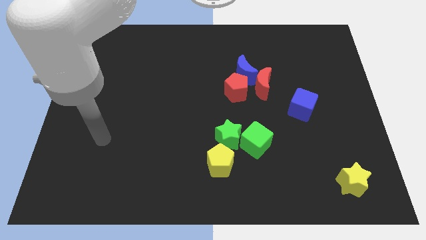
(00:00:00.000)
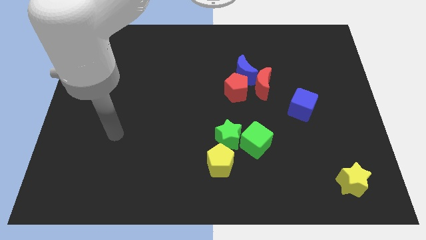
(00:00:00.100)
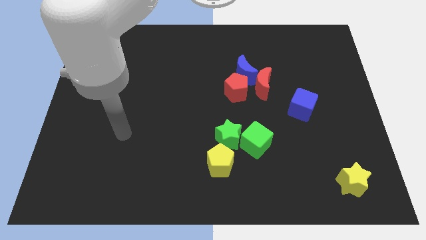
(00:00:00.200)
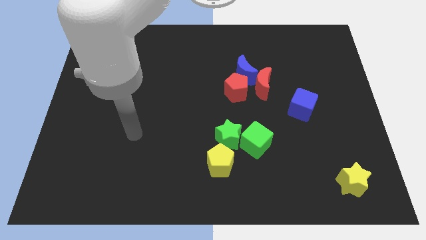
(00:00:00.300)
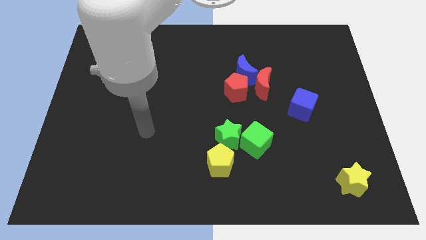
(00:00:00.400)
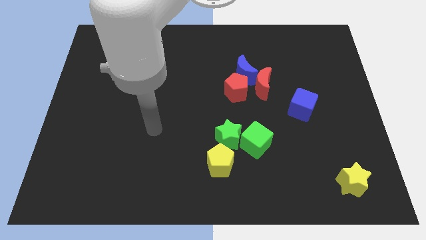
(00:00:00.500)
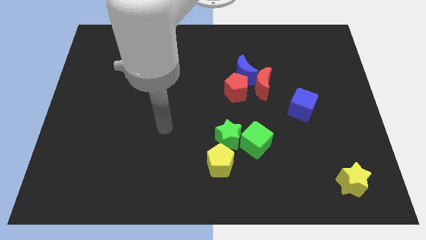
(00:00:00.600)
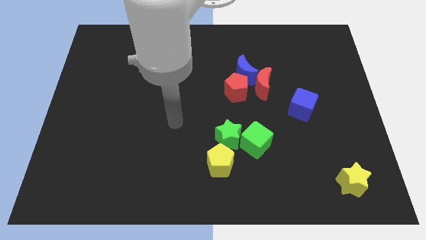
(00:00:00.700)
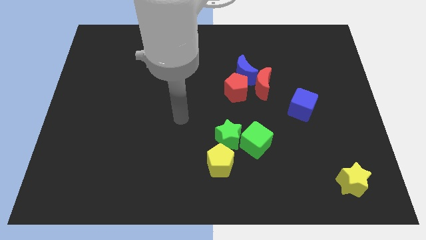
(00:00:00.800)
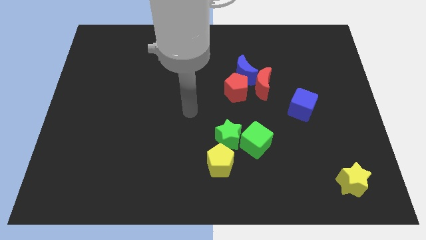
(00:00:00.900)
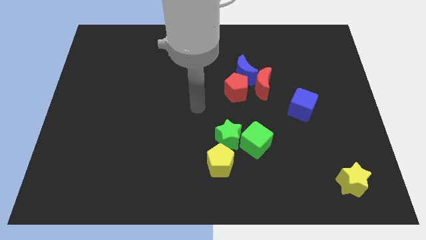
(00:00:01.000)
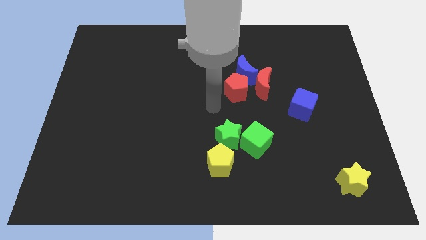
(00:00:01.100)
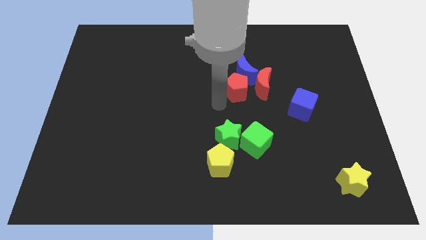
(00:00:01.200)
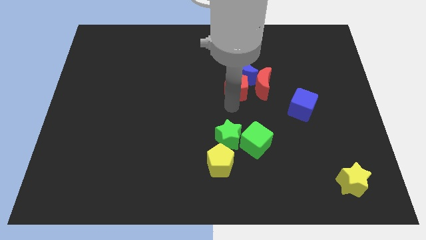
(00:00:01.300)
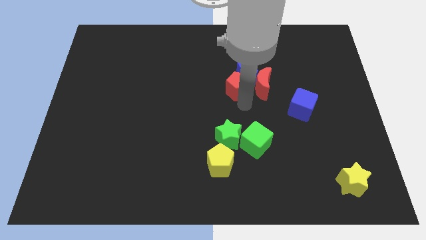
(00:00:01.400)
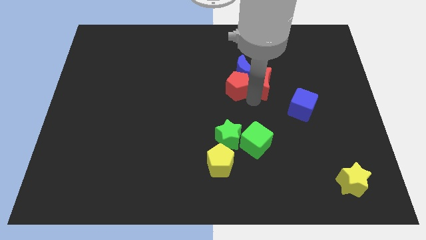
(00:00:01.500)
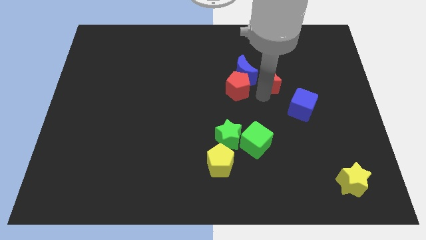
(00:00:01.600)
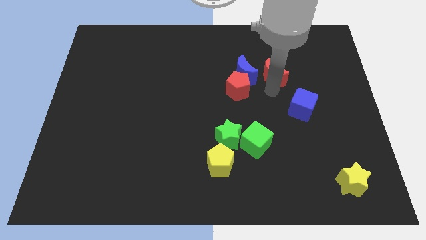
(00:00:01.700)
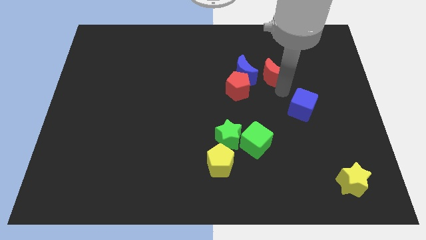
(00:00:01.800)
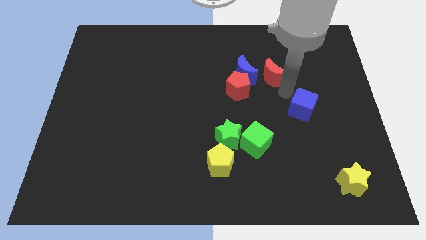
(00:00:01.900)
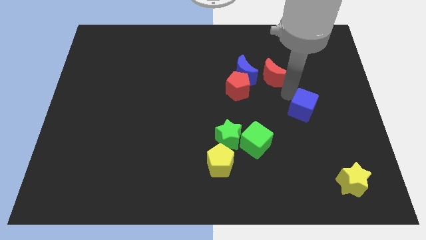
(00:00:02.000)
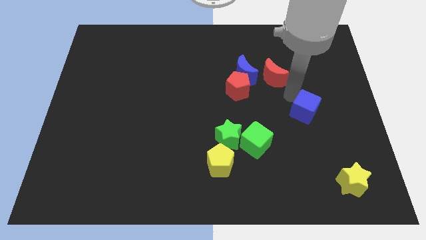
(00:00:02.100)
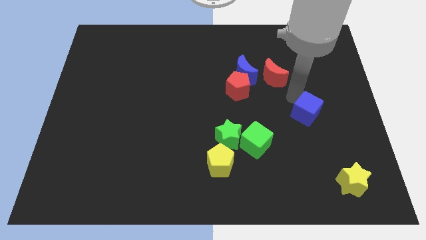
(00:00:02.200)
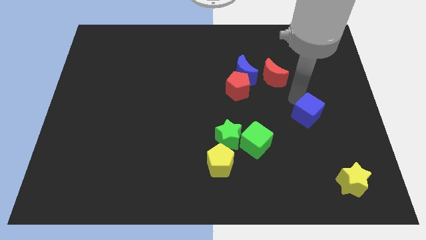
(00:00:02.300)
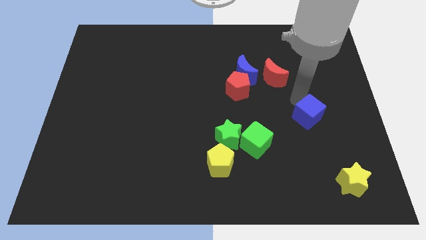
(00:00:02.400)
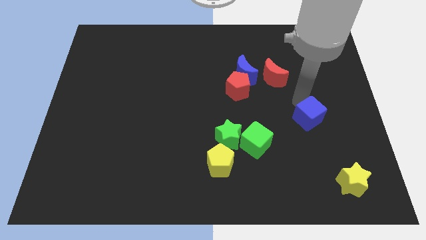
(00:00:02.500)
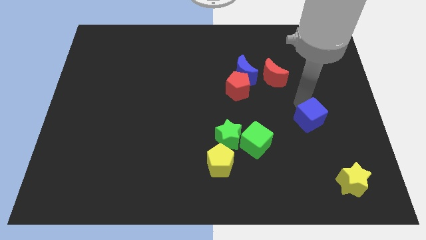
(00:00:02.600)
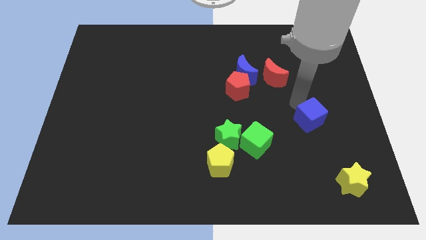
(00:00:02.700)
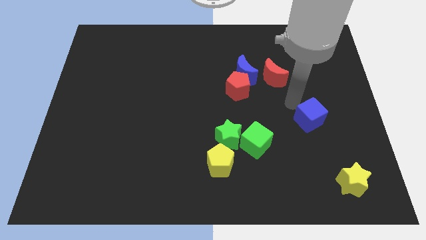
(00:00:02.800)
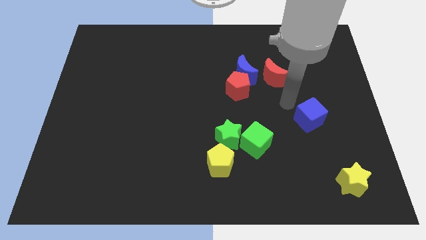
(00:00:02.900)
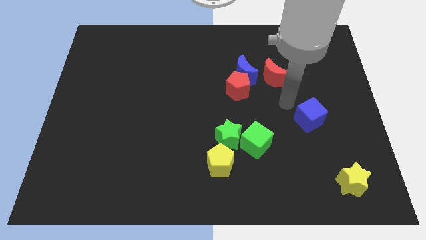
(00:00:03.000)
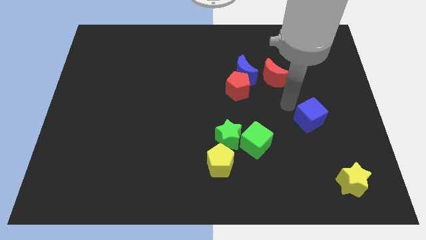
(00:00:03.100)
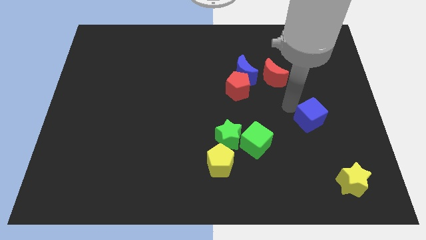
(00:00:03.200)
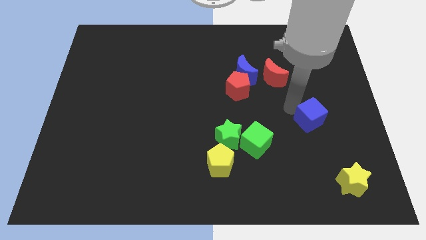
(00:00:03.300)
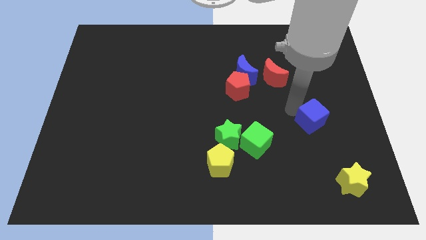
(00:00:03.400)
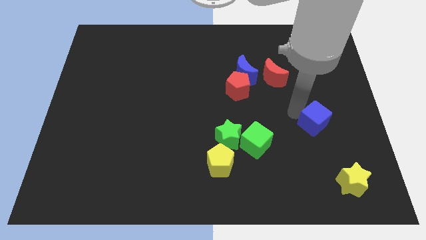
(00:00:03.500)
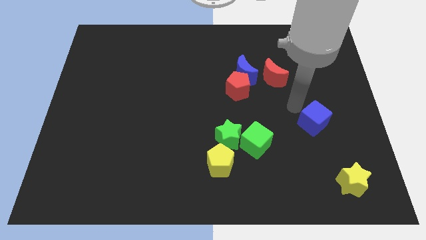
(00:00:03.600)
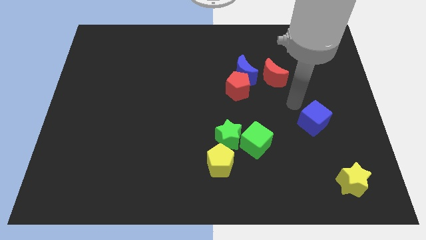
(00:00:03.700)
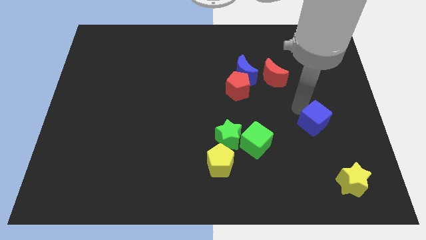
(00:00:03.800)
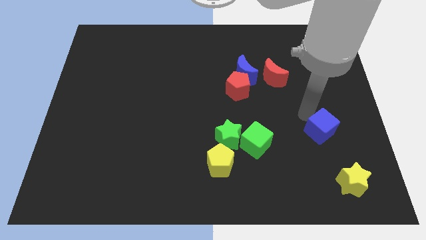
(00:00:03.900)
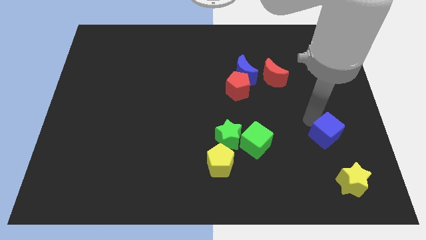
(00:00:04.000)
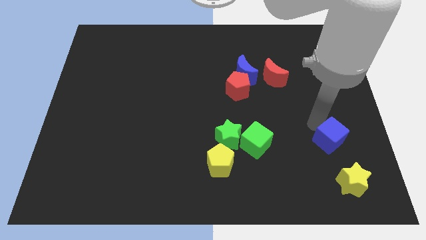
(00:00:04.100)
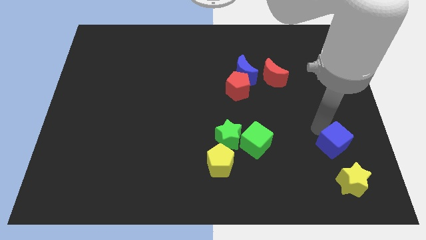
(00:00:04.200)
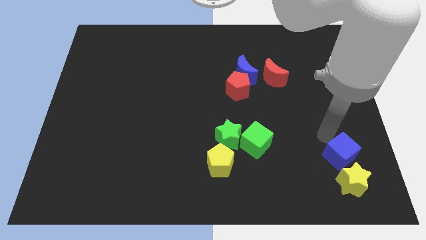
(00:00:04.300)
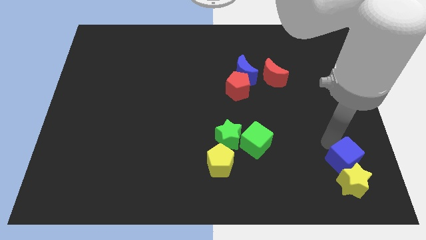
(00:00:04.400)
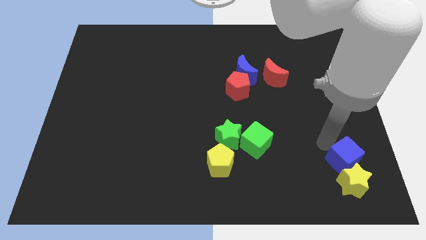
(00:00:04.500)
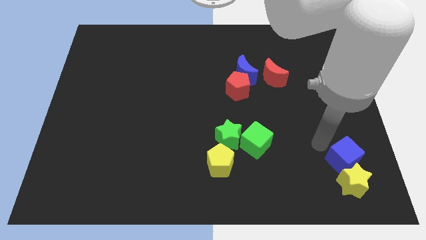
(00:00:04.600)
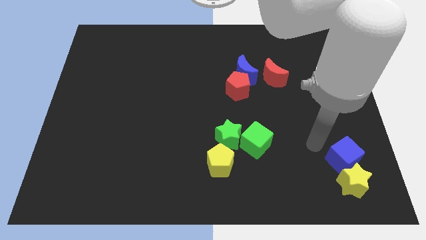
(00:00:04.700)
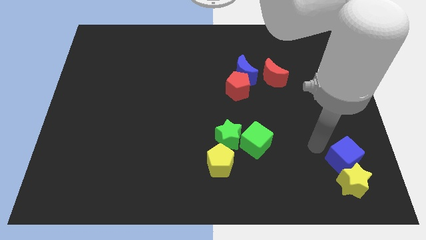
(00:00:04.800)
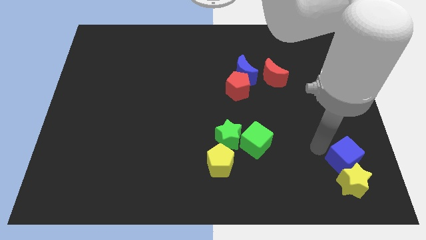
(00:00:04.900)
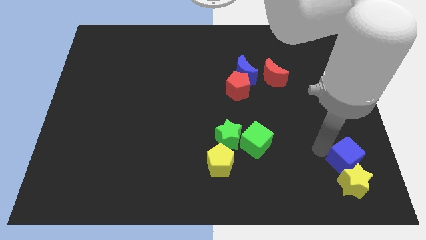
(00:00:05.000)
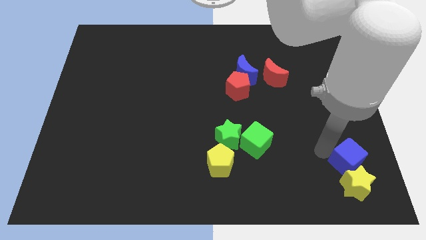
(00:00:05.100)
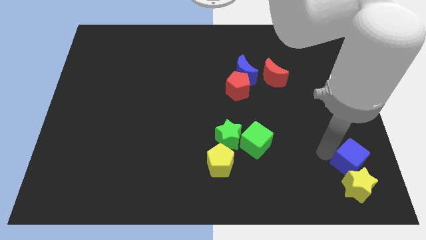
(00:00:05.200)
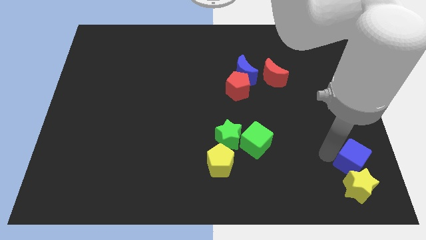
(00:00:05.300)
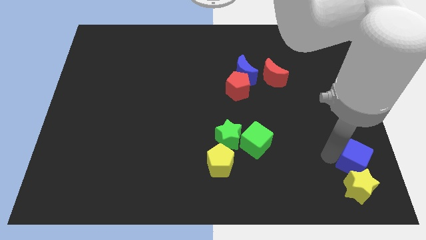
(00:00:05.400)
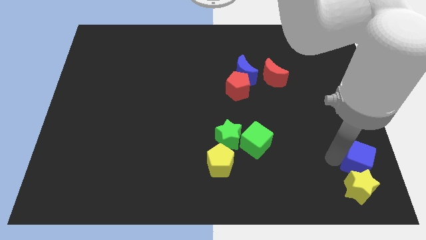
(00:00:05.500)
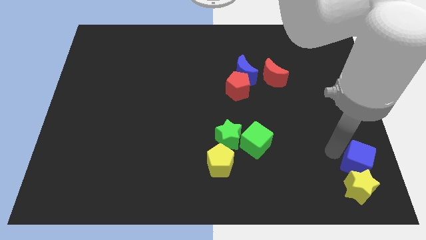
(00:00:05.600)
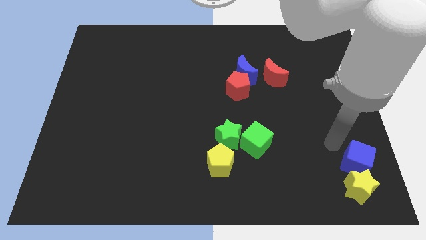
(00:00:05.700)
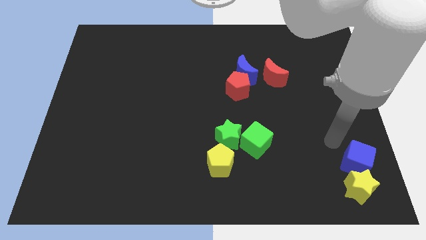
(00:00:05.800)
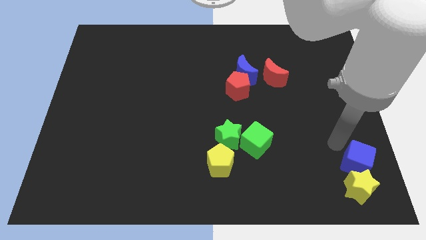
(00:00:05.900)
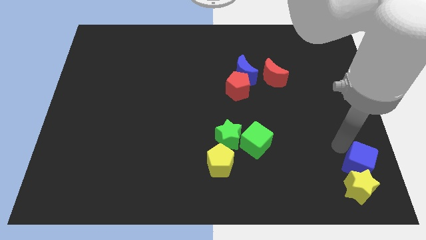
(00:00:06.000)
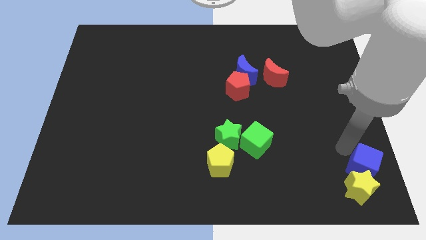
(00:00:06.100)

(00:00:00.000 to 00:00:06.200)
slide the blue cube to the lower right corner
